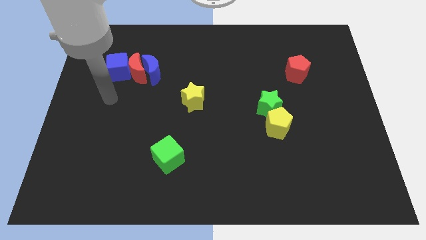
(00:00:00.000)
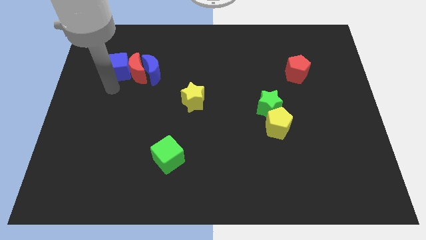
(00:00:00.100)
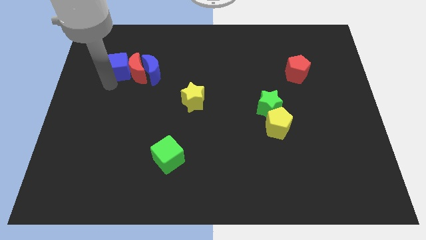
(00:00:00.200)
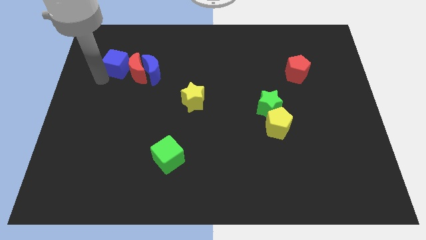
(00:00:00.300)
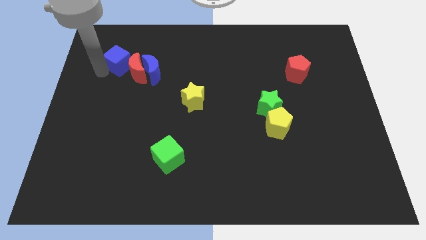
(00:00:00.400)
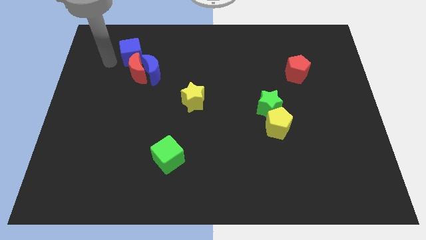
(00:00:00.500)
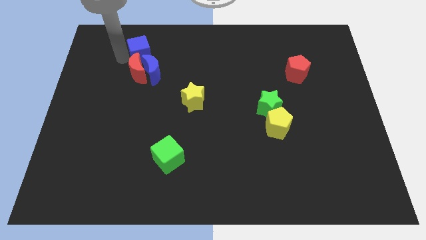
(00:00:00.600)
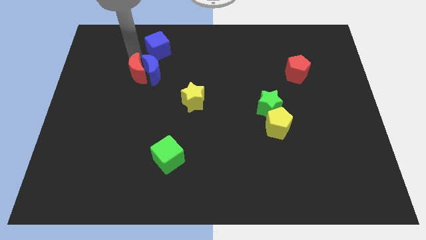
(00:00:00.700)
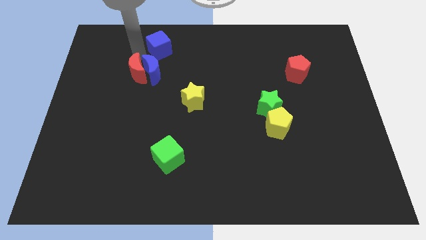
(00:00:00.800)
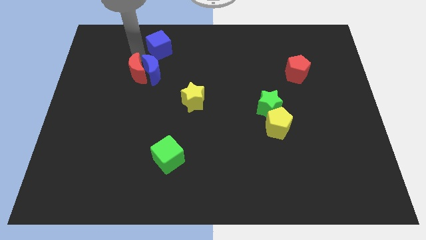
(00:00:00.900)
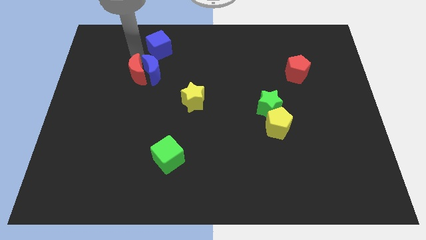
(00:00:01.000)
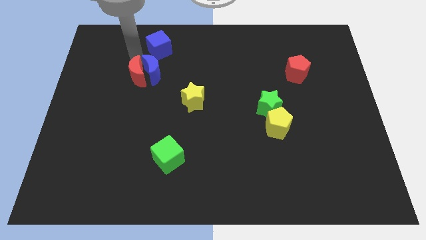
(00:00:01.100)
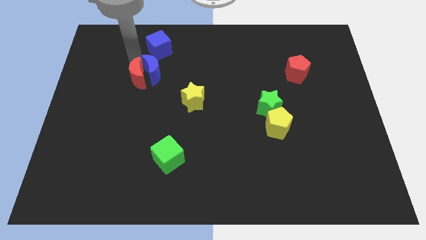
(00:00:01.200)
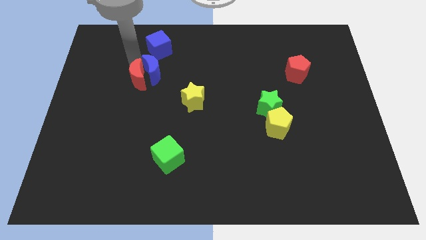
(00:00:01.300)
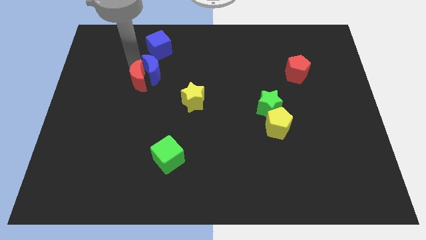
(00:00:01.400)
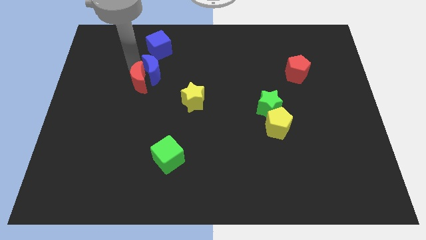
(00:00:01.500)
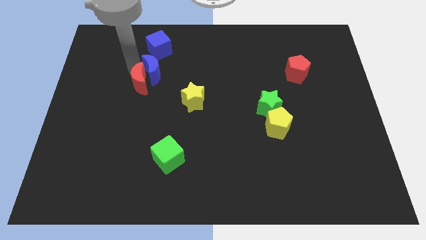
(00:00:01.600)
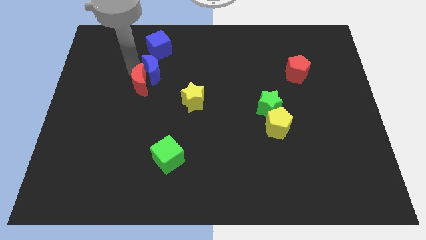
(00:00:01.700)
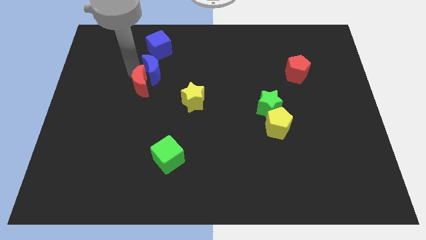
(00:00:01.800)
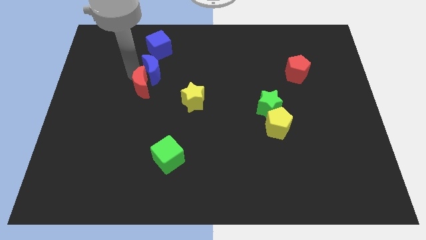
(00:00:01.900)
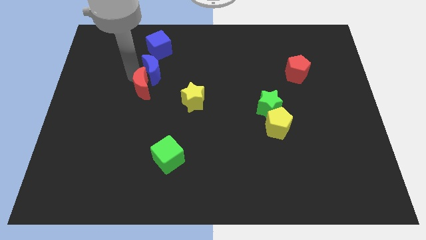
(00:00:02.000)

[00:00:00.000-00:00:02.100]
separate the red moon from the blue moon and blue cube

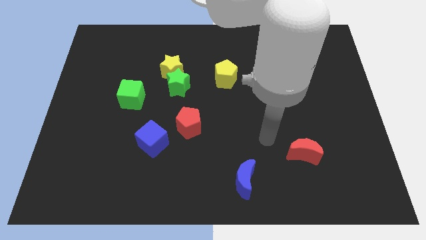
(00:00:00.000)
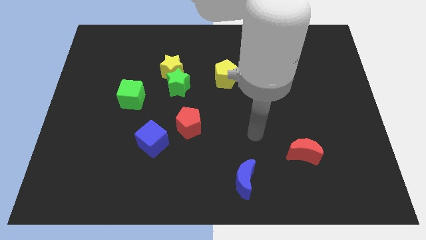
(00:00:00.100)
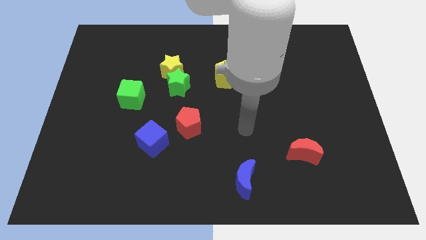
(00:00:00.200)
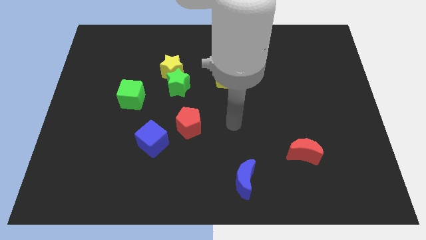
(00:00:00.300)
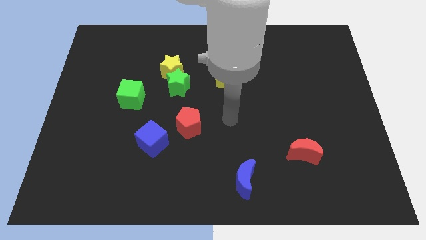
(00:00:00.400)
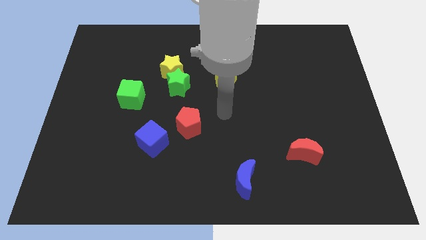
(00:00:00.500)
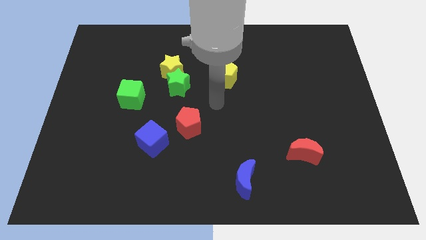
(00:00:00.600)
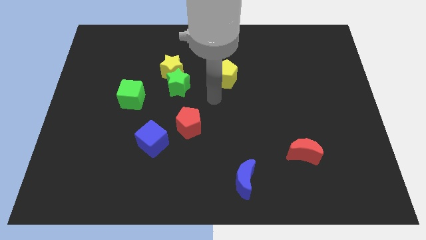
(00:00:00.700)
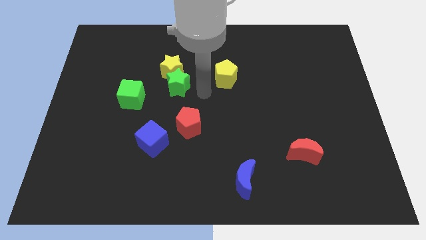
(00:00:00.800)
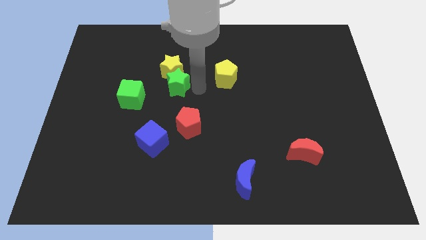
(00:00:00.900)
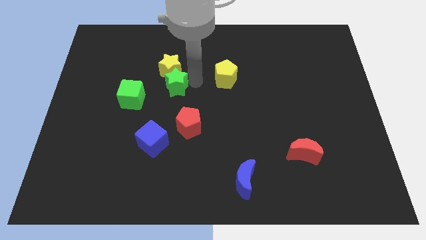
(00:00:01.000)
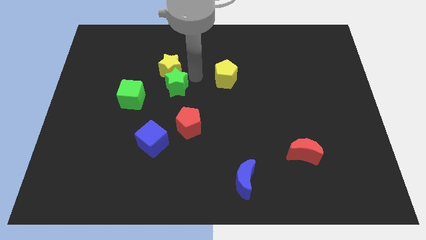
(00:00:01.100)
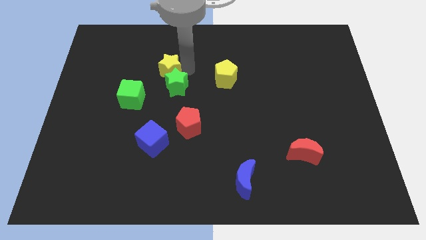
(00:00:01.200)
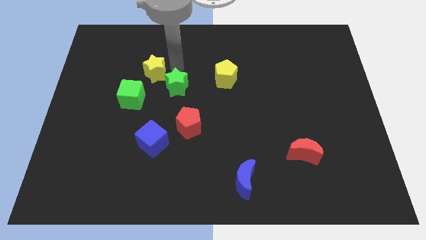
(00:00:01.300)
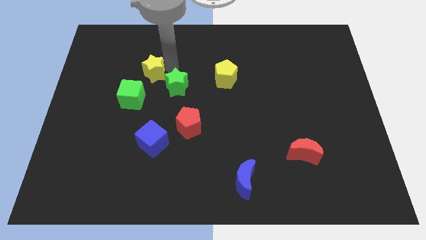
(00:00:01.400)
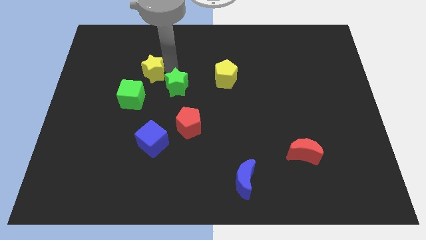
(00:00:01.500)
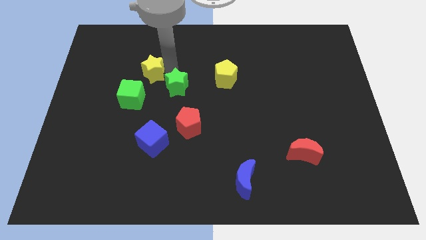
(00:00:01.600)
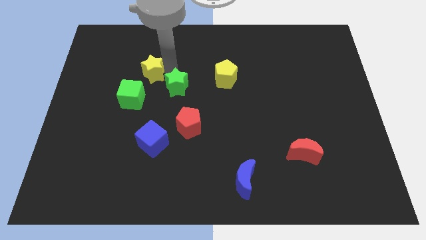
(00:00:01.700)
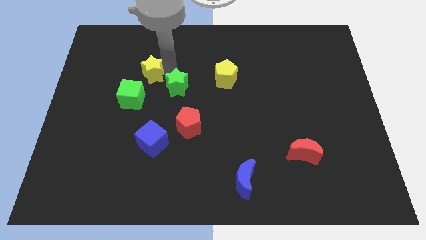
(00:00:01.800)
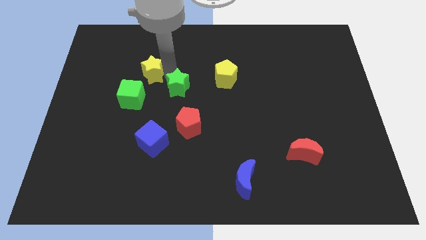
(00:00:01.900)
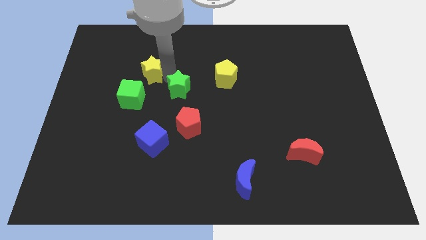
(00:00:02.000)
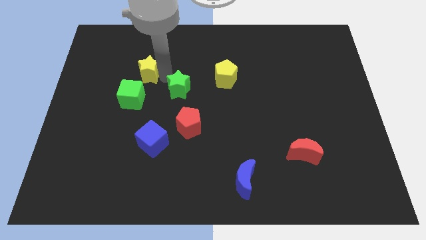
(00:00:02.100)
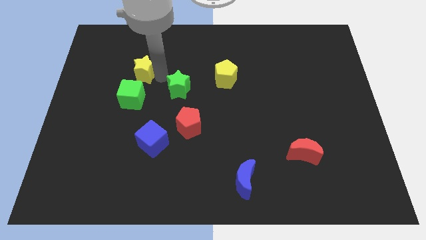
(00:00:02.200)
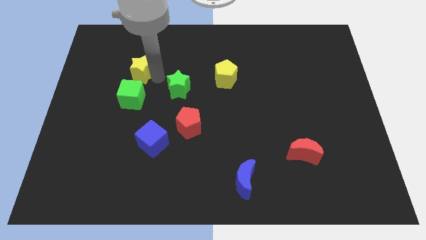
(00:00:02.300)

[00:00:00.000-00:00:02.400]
pull the green star apart from the yellow star

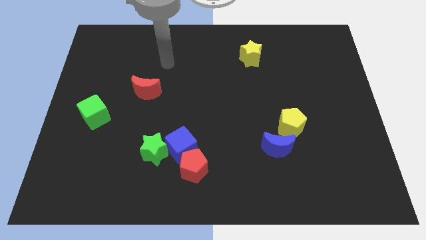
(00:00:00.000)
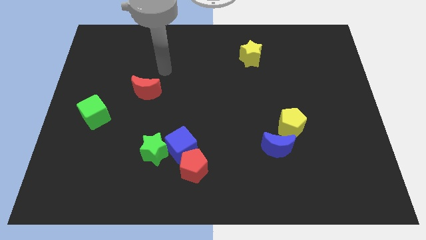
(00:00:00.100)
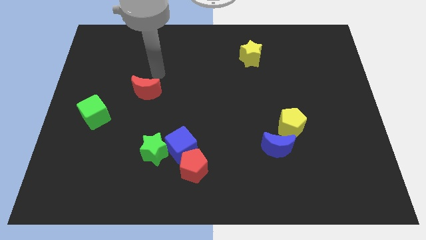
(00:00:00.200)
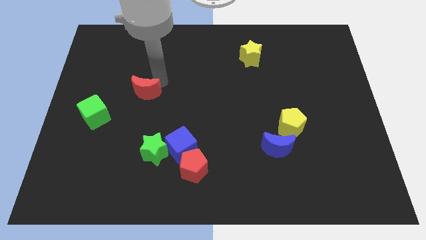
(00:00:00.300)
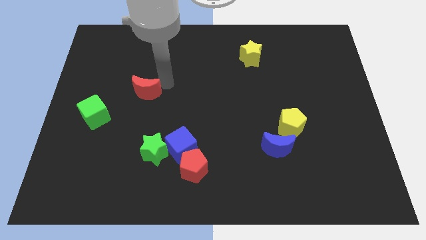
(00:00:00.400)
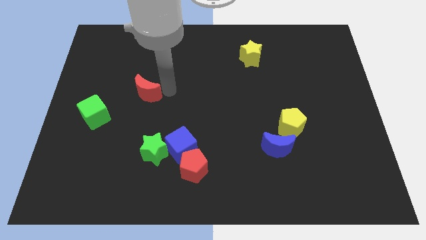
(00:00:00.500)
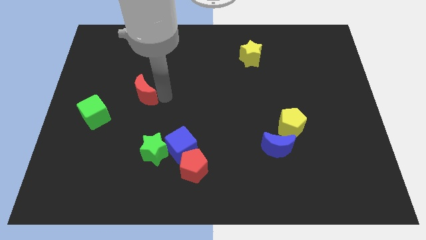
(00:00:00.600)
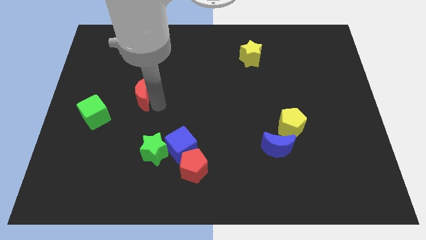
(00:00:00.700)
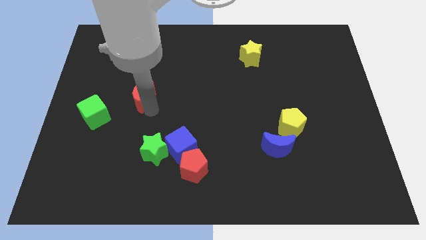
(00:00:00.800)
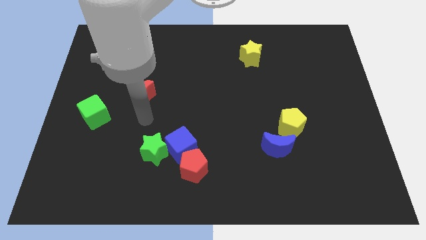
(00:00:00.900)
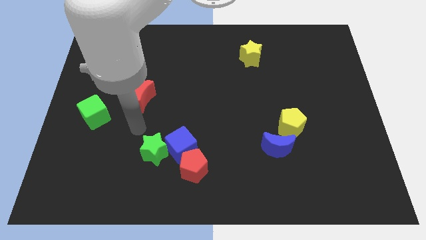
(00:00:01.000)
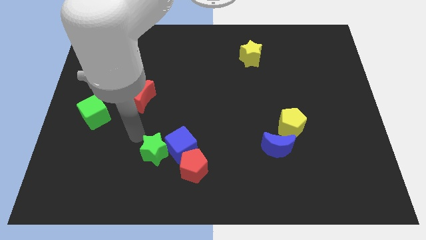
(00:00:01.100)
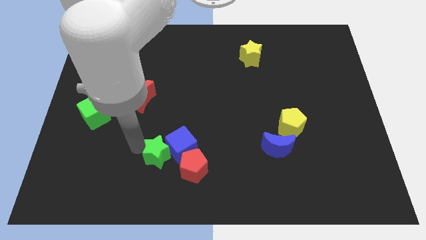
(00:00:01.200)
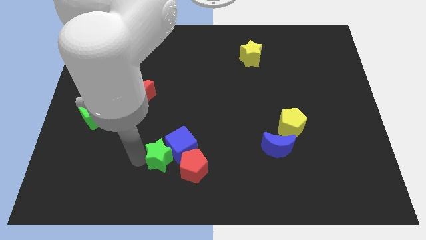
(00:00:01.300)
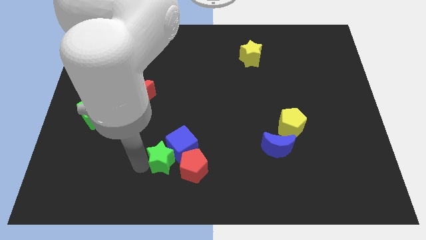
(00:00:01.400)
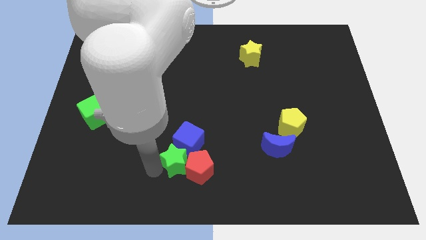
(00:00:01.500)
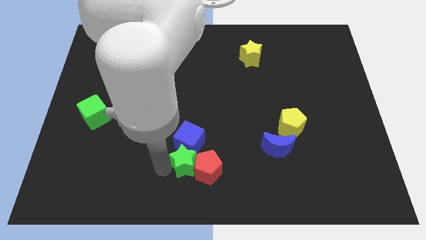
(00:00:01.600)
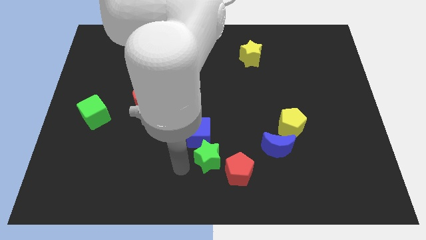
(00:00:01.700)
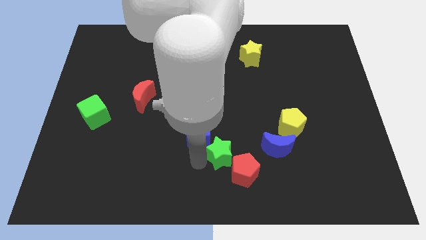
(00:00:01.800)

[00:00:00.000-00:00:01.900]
separate the blue cube from the green star and red pentagon

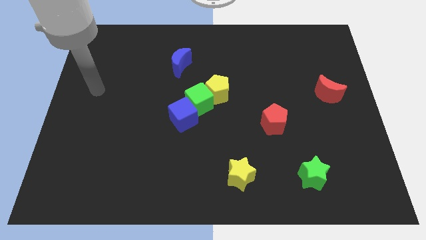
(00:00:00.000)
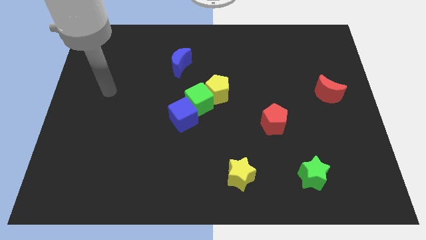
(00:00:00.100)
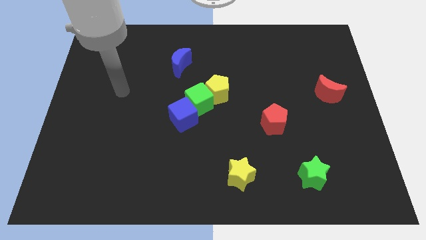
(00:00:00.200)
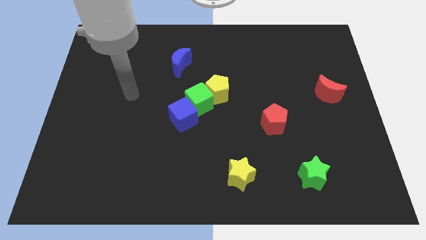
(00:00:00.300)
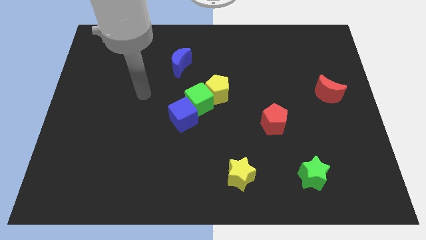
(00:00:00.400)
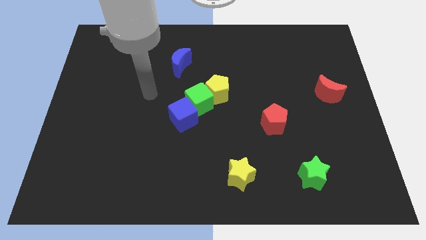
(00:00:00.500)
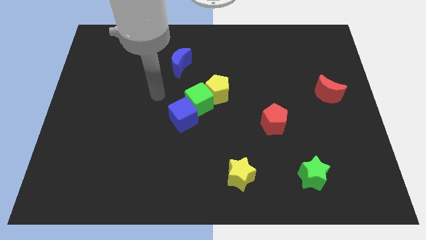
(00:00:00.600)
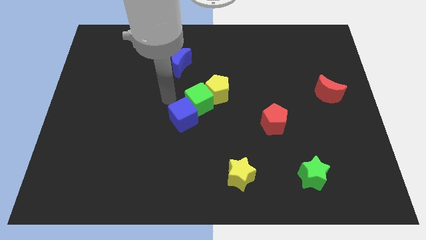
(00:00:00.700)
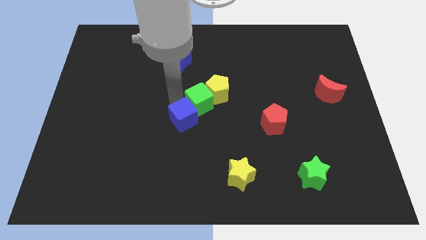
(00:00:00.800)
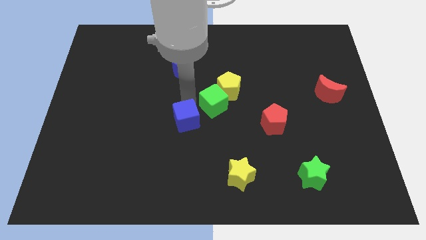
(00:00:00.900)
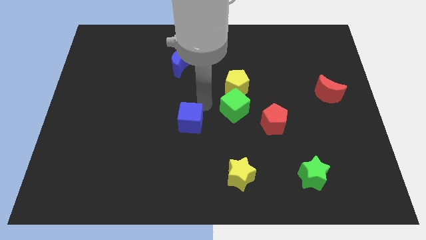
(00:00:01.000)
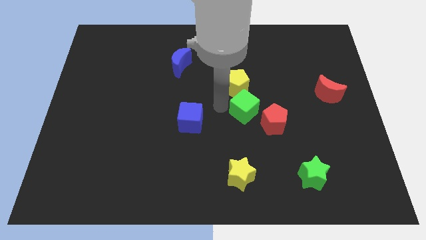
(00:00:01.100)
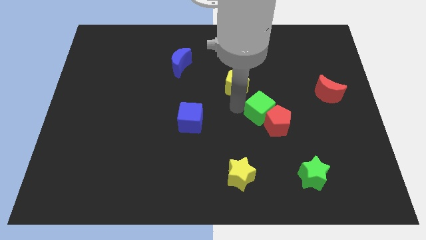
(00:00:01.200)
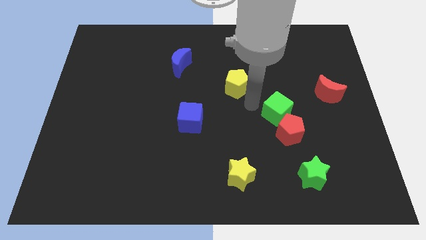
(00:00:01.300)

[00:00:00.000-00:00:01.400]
move the yellow pentagon away from the green cube

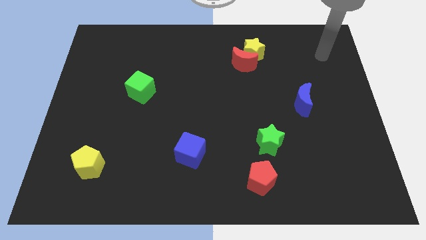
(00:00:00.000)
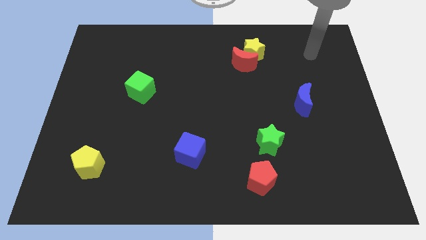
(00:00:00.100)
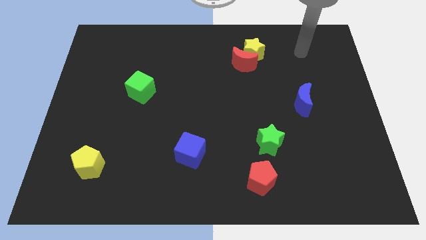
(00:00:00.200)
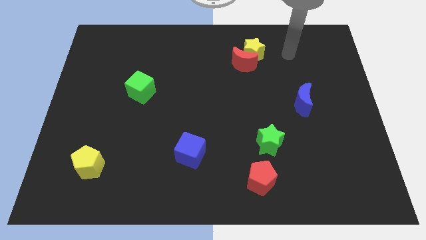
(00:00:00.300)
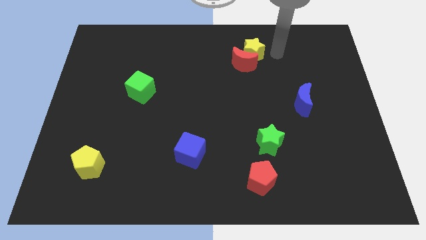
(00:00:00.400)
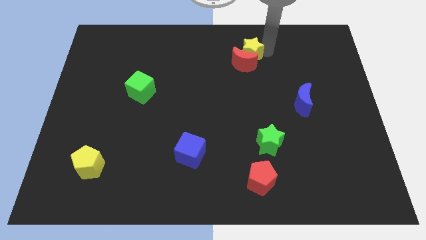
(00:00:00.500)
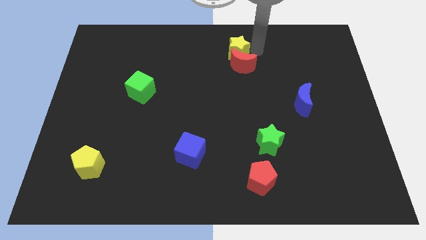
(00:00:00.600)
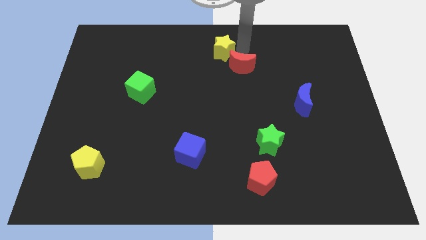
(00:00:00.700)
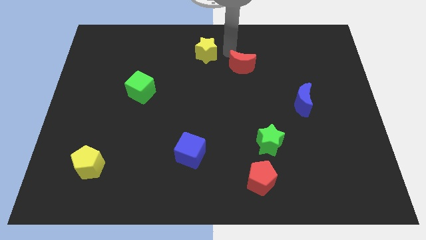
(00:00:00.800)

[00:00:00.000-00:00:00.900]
separate the red moon from the yellow star

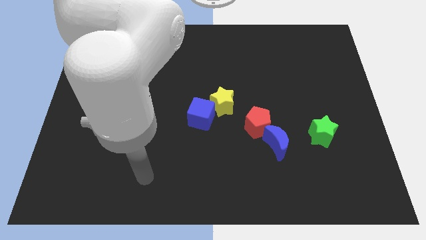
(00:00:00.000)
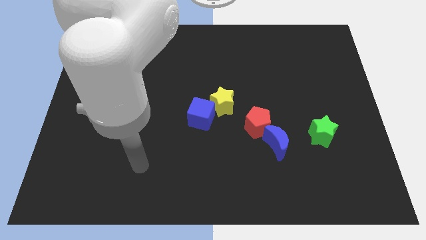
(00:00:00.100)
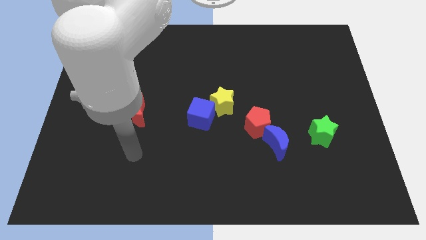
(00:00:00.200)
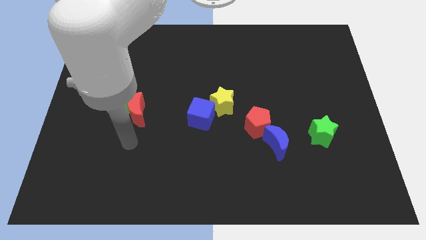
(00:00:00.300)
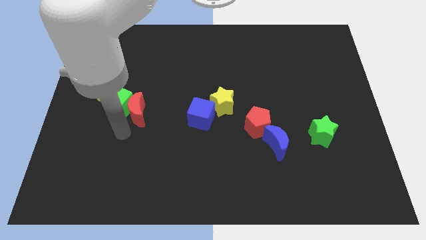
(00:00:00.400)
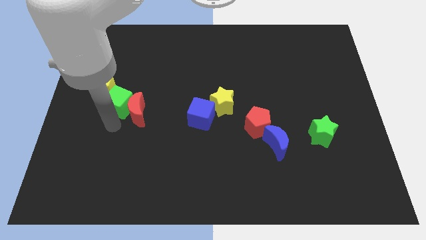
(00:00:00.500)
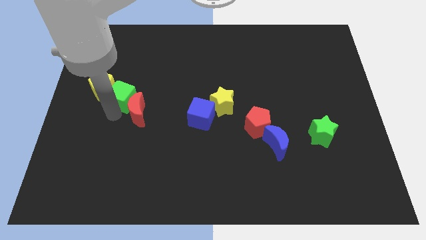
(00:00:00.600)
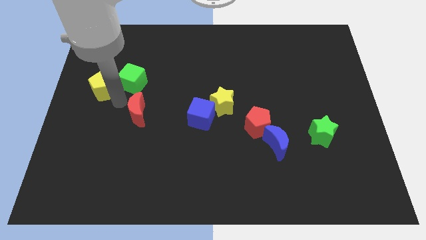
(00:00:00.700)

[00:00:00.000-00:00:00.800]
pull the red moon apart from the green cube
